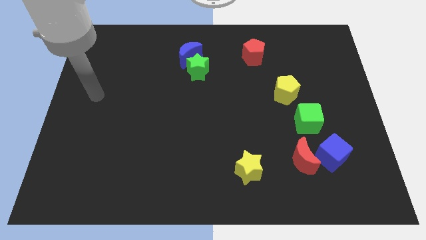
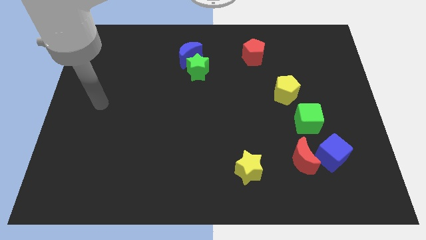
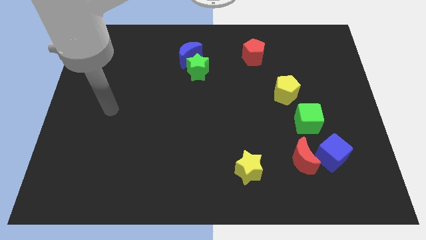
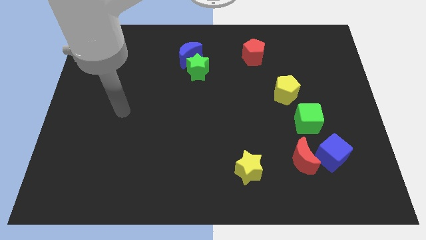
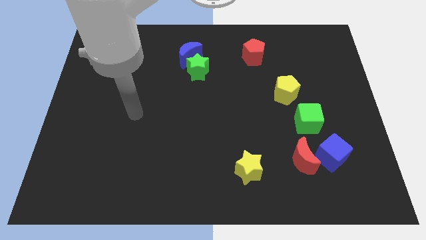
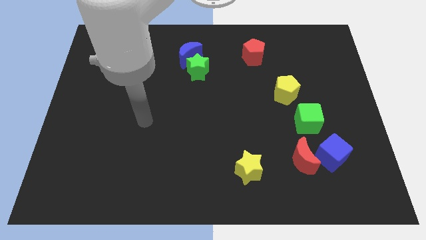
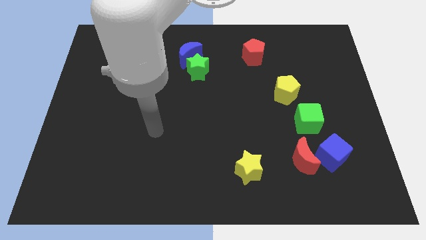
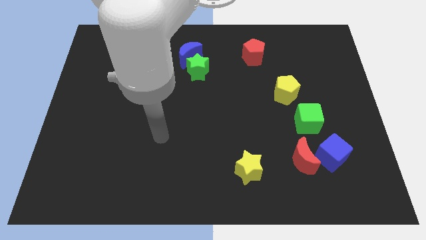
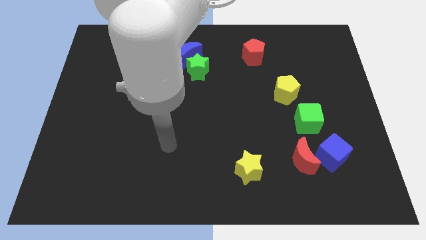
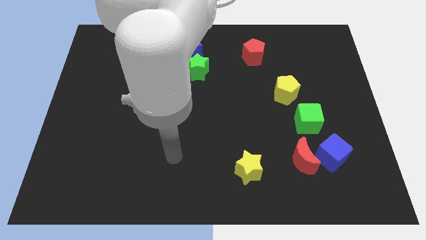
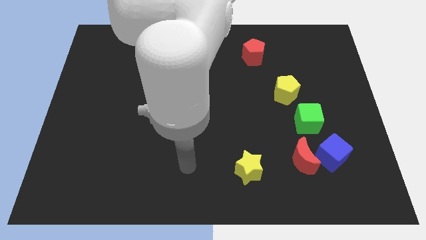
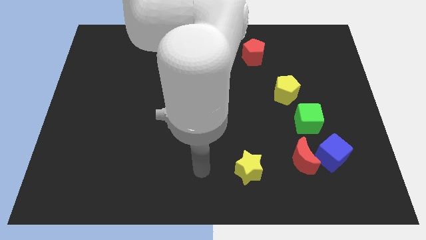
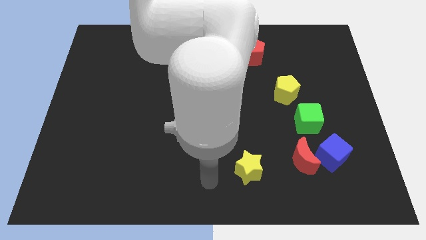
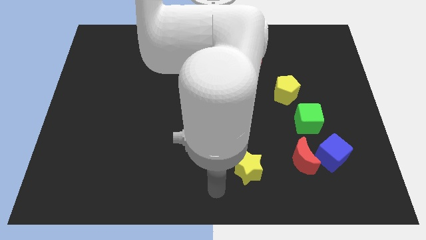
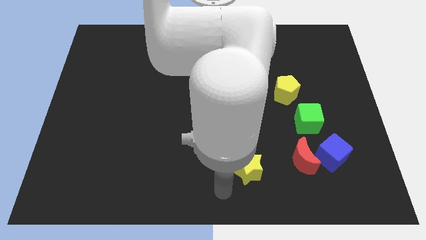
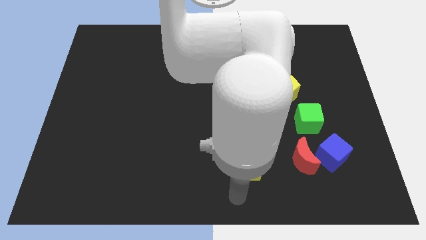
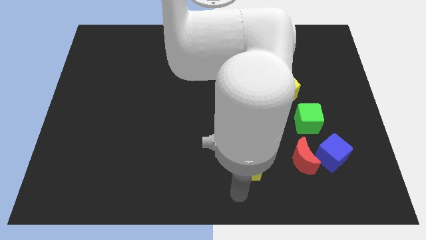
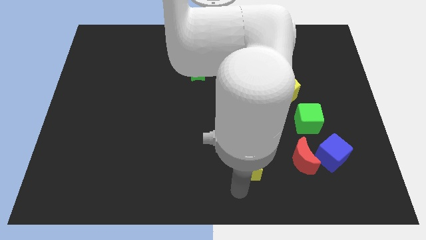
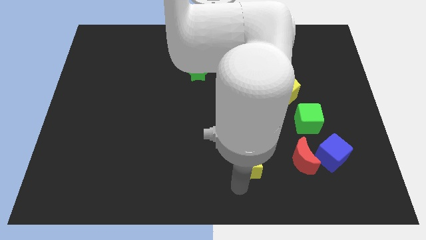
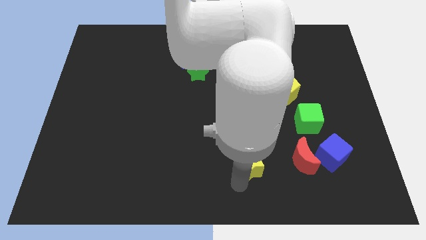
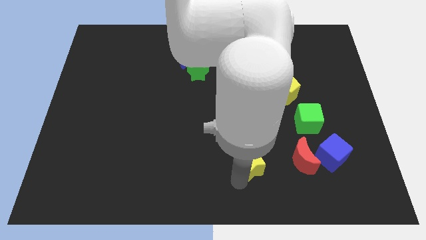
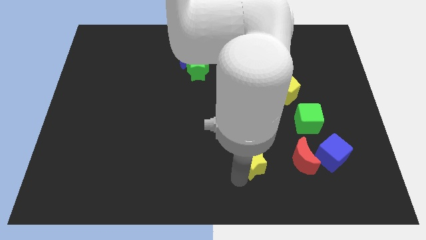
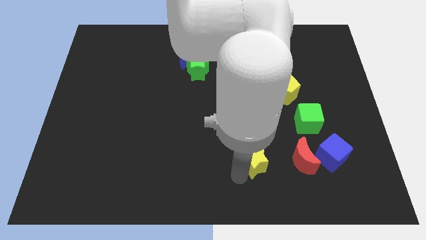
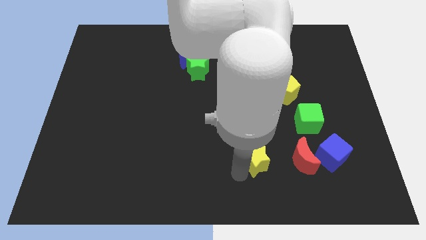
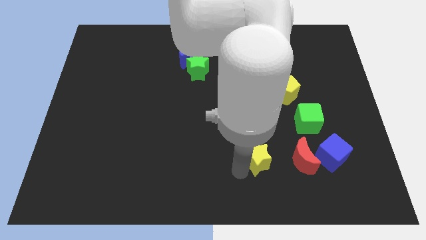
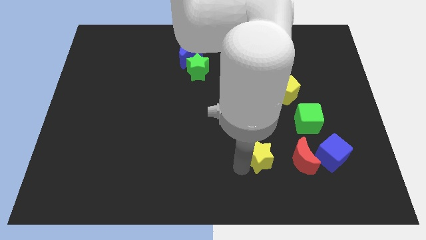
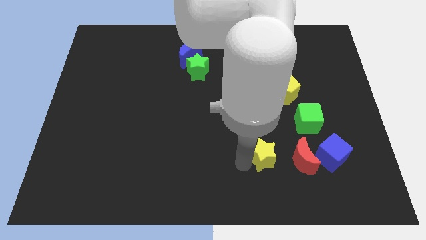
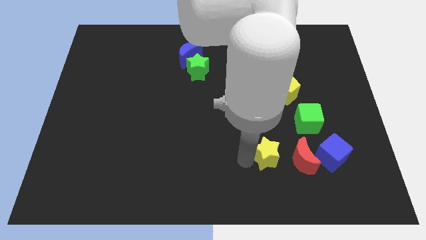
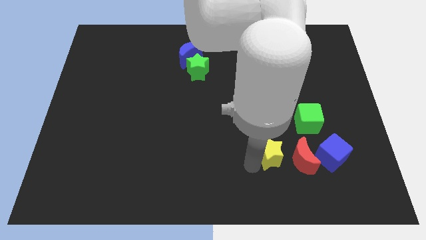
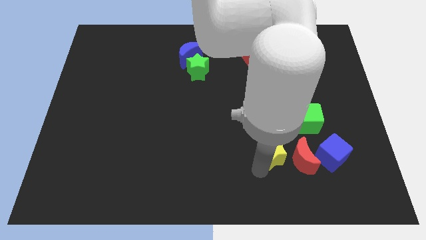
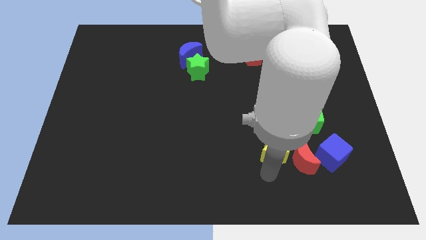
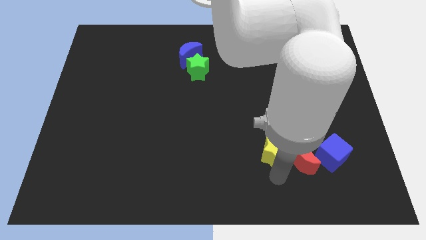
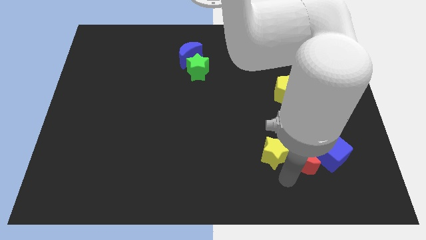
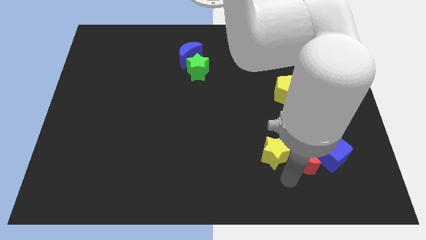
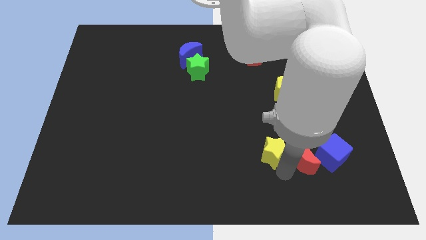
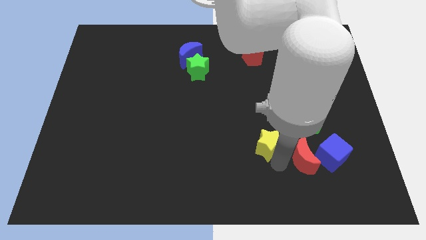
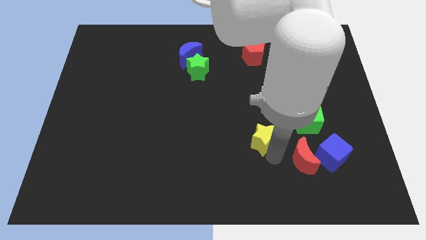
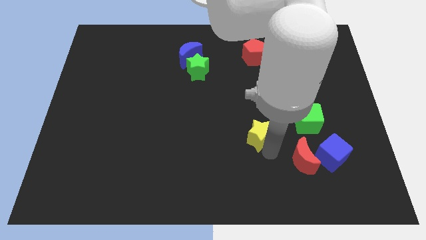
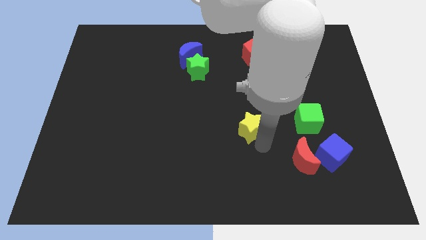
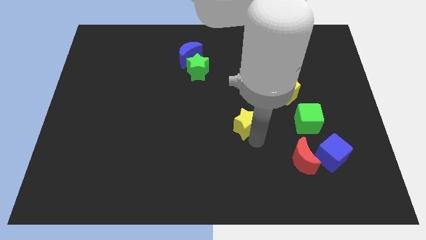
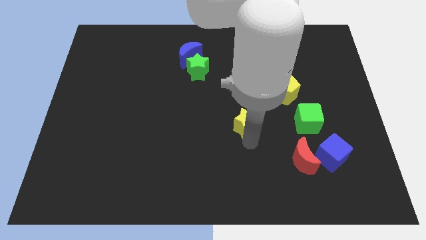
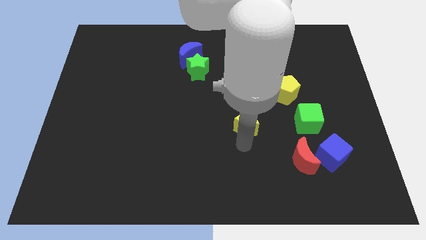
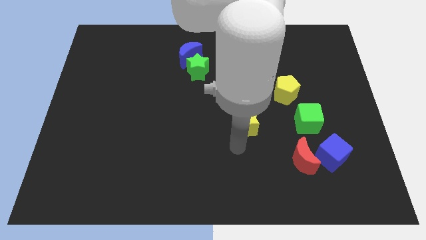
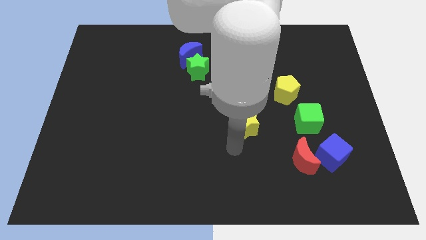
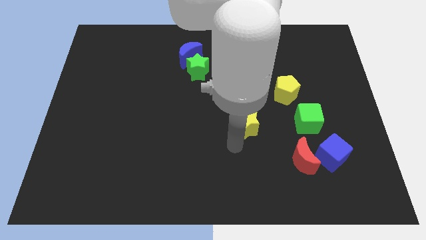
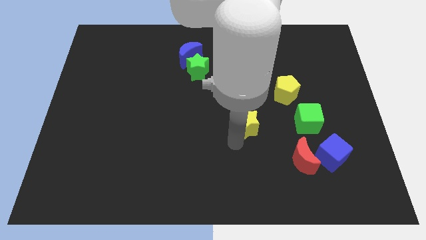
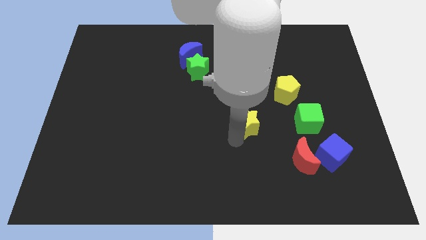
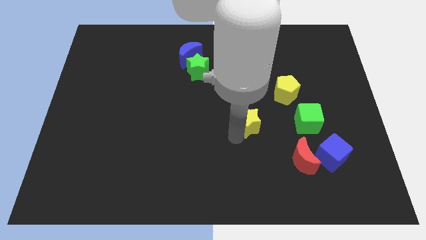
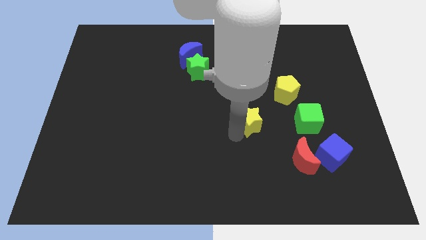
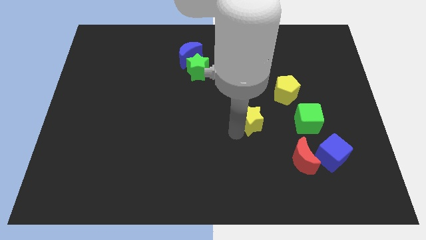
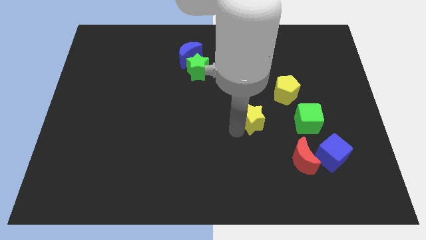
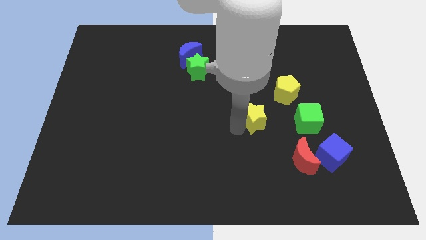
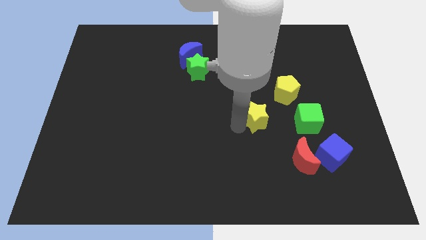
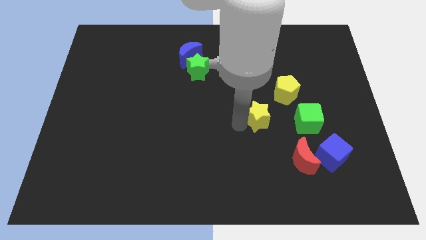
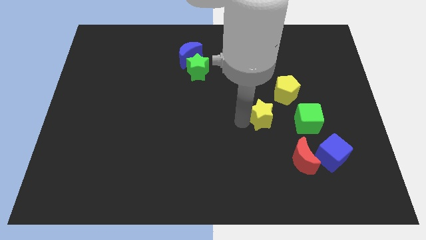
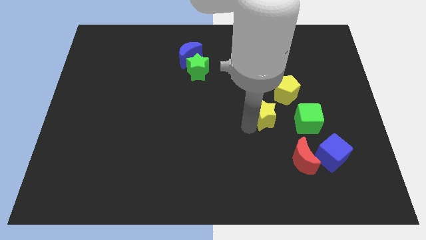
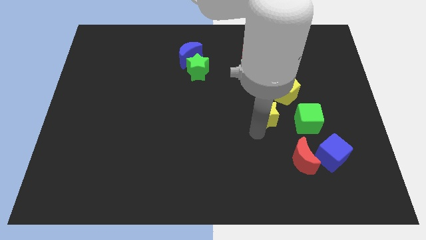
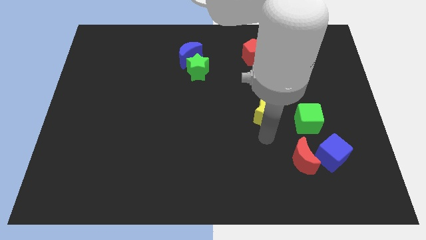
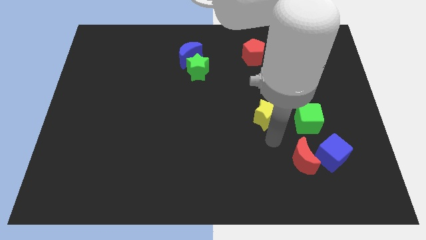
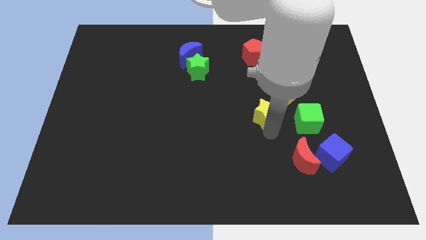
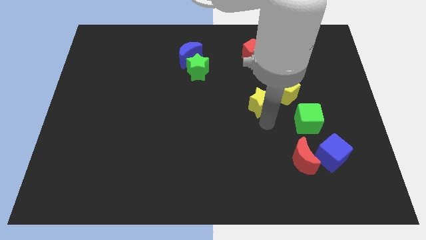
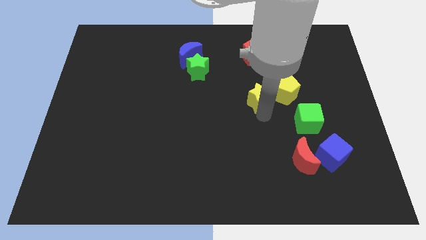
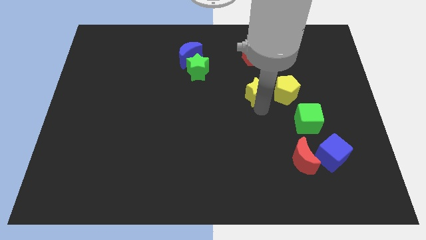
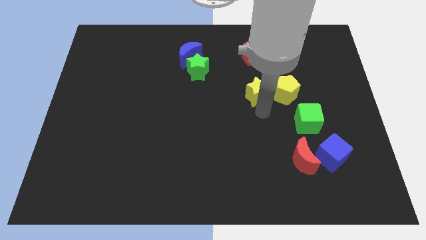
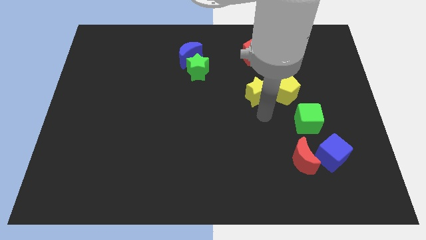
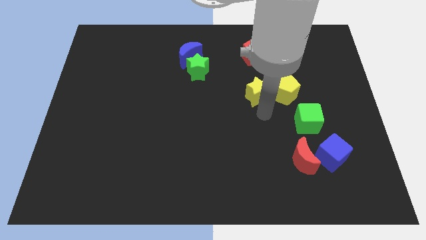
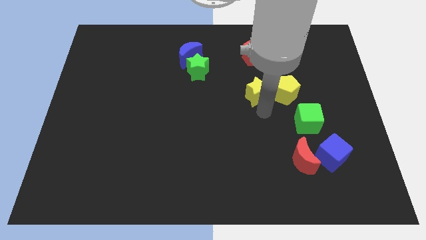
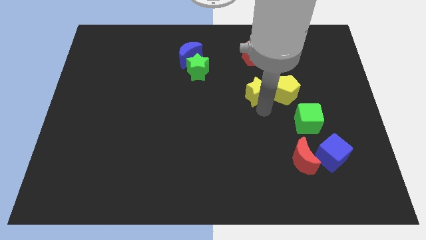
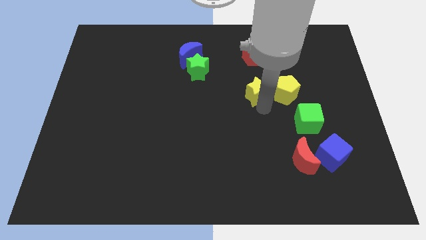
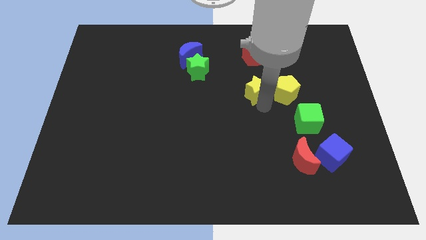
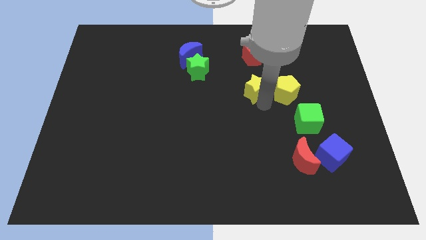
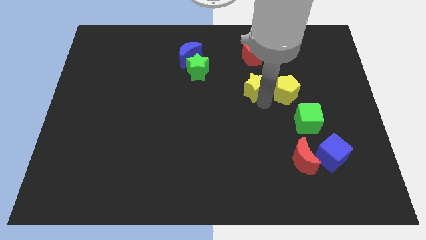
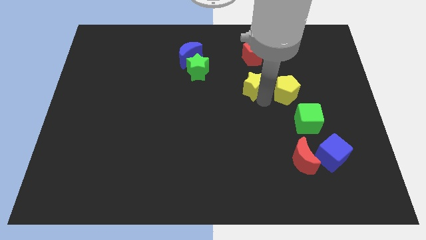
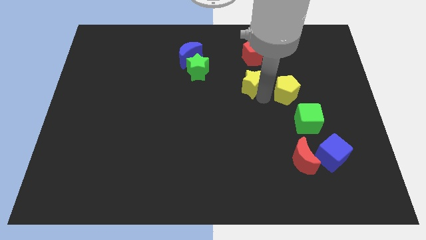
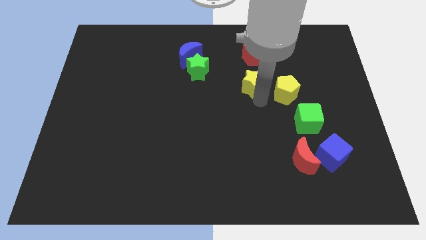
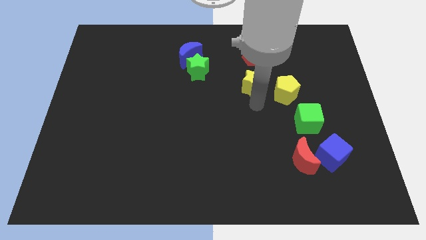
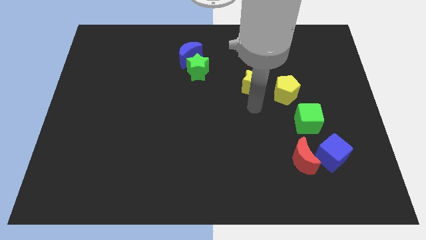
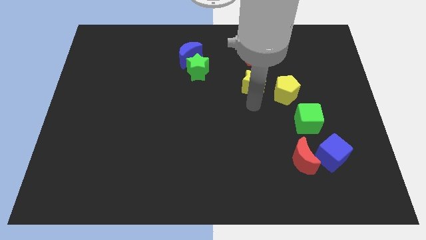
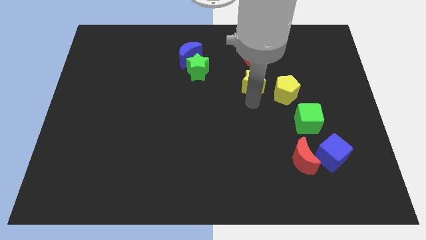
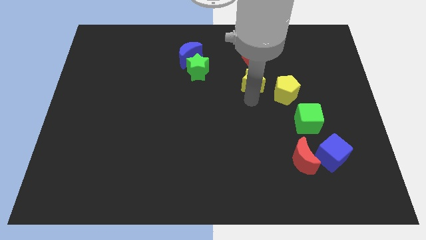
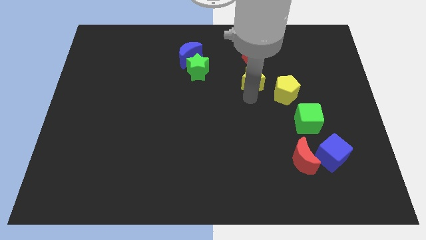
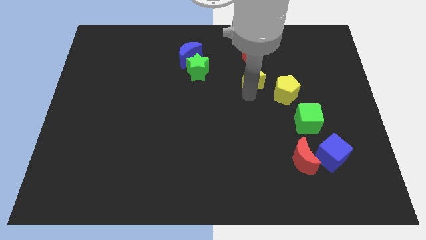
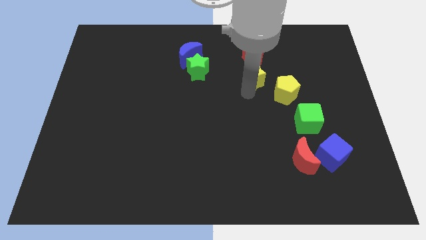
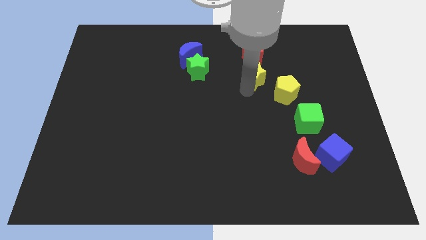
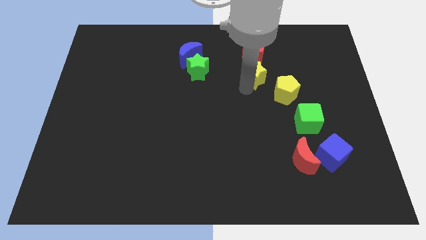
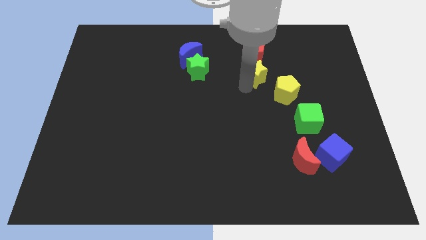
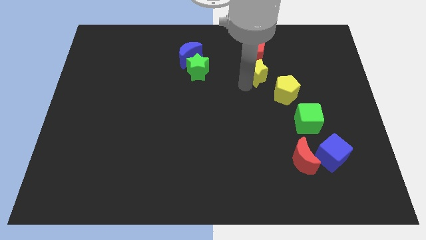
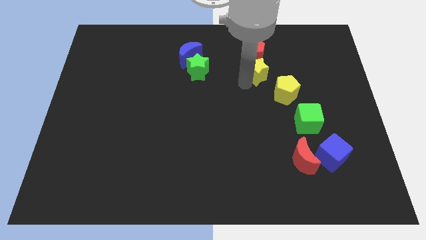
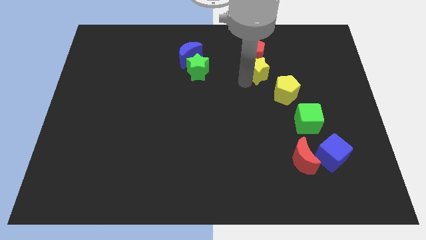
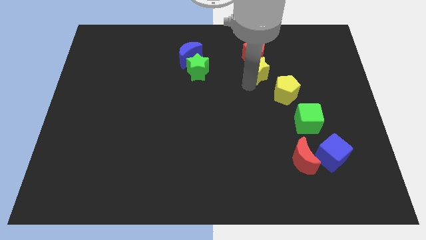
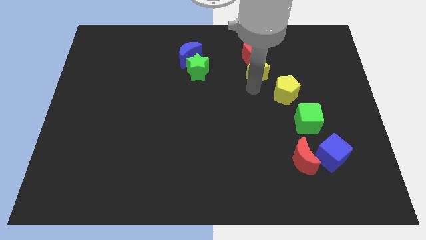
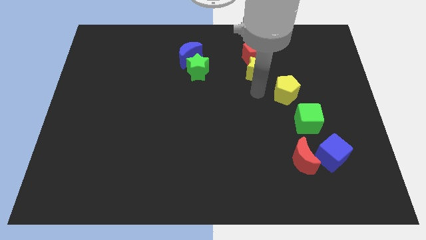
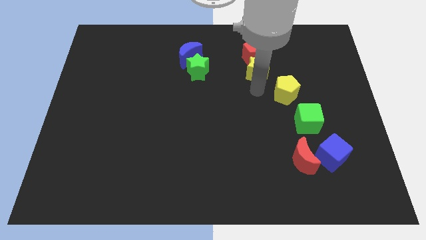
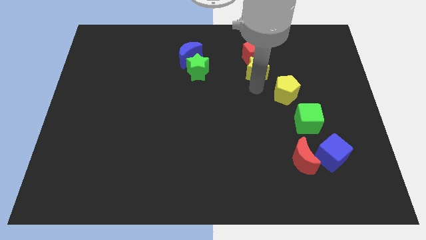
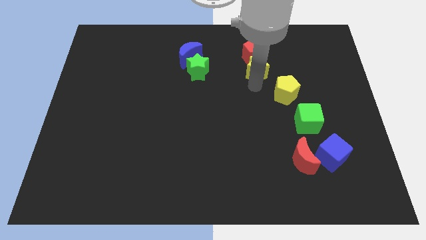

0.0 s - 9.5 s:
put the yellow star to the red pentagon
